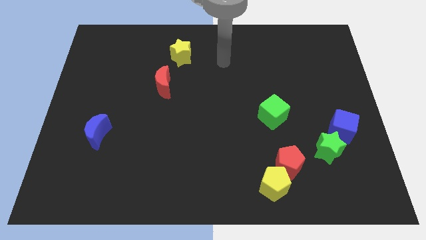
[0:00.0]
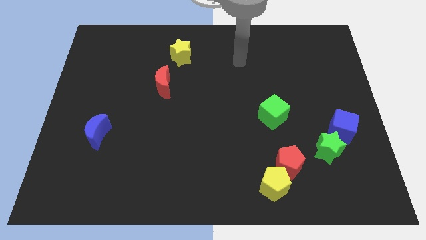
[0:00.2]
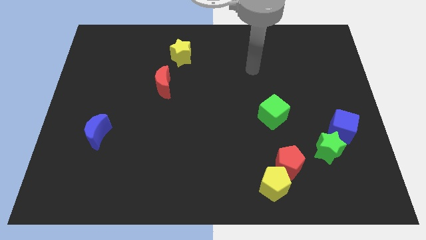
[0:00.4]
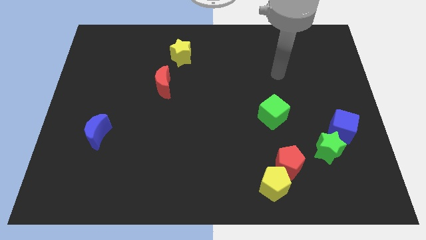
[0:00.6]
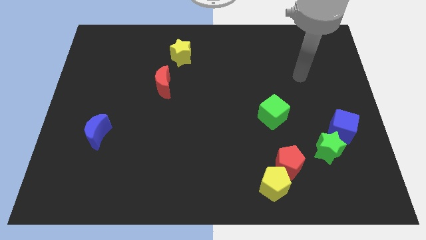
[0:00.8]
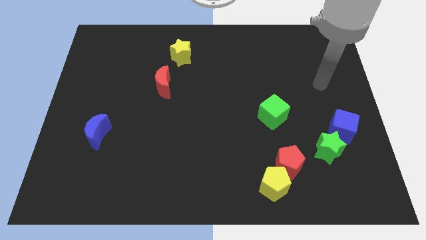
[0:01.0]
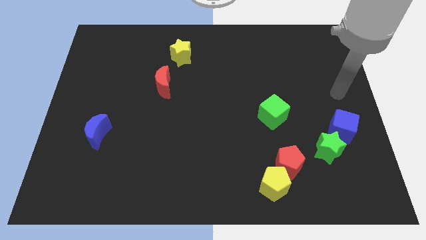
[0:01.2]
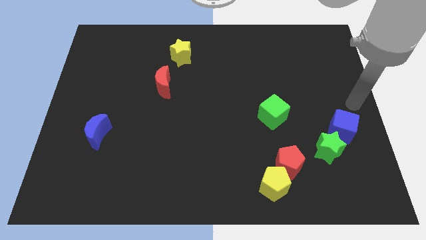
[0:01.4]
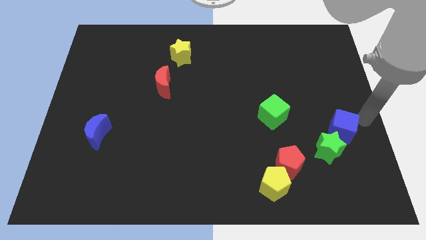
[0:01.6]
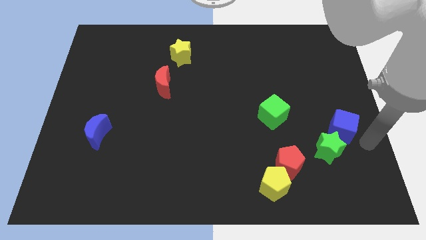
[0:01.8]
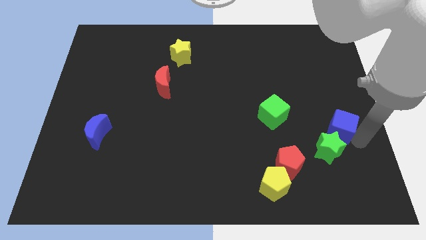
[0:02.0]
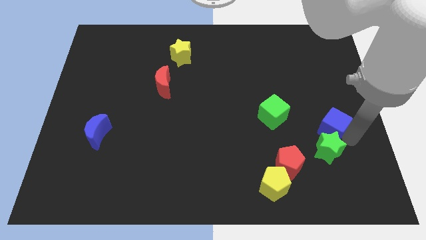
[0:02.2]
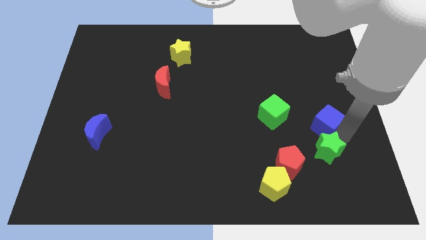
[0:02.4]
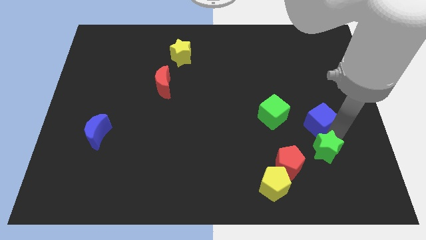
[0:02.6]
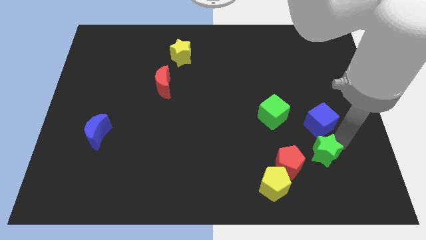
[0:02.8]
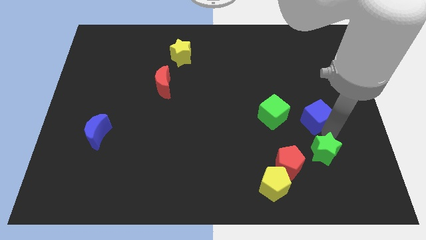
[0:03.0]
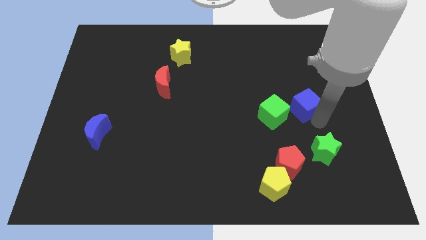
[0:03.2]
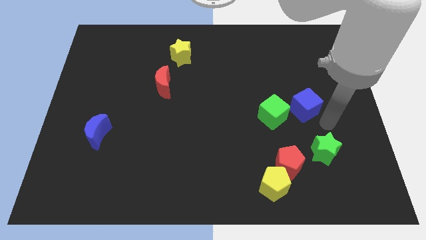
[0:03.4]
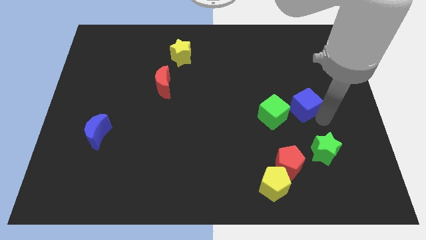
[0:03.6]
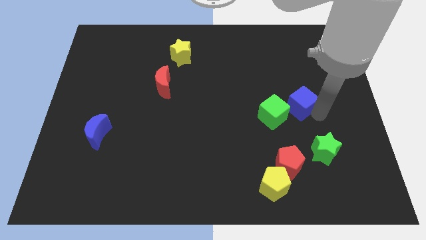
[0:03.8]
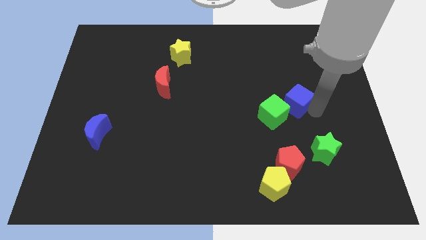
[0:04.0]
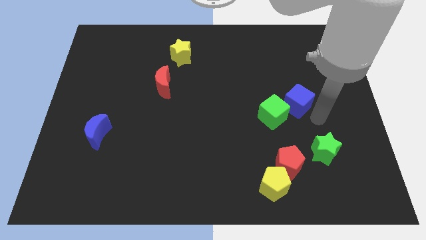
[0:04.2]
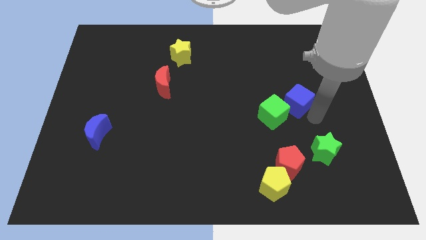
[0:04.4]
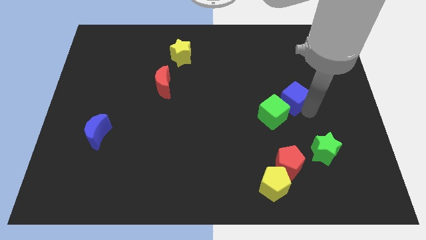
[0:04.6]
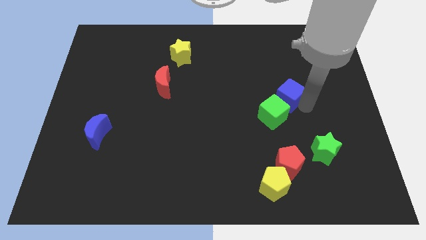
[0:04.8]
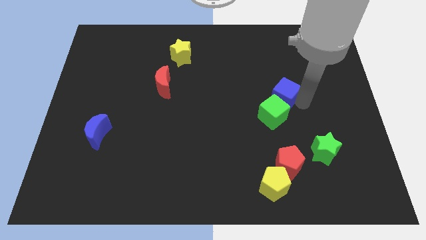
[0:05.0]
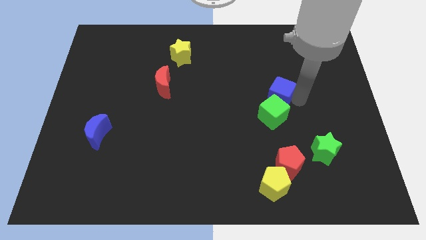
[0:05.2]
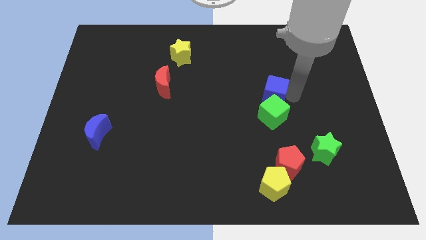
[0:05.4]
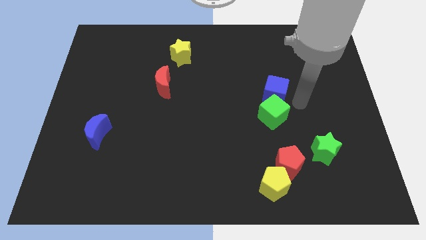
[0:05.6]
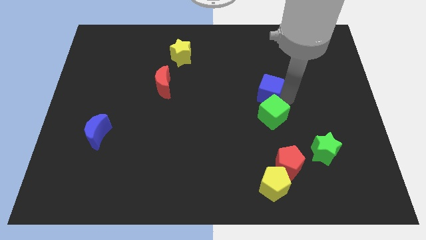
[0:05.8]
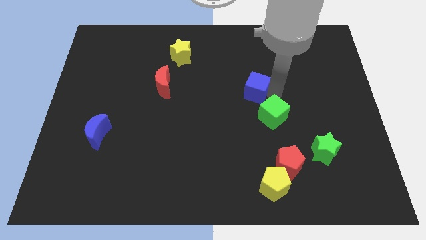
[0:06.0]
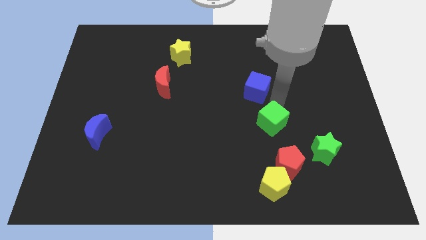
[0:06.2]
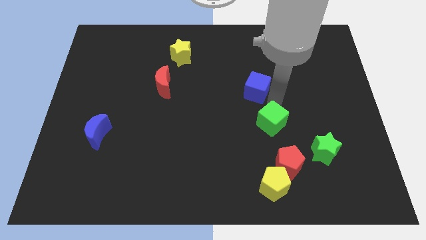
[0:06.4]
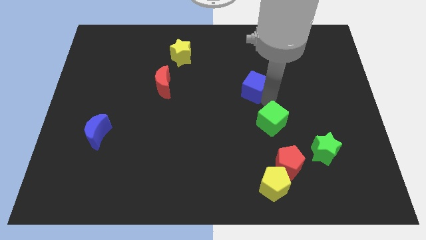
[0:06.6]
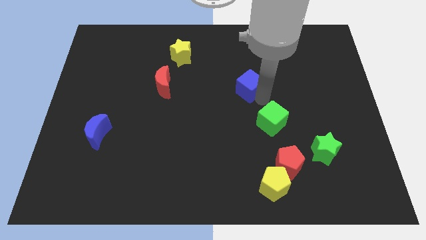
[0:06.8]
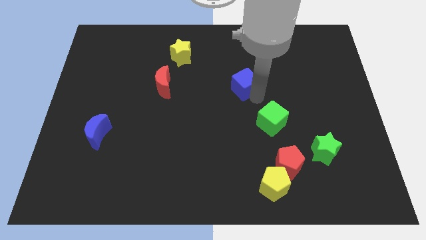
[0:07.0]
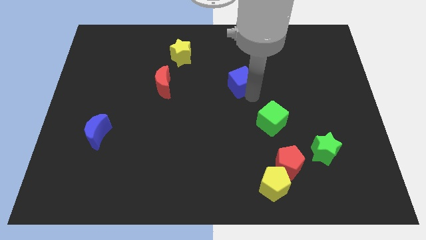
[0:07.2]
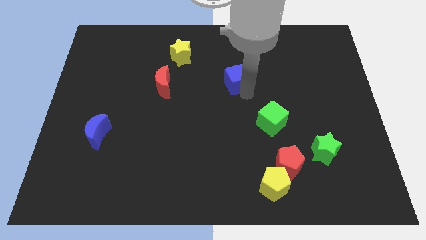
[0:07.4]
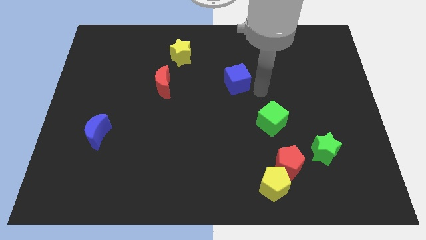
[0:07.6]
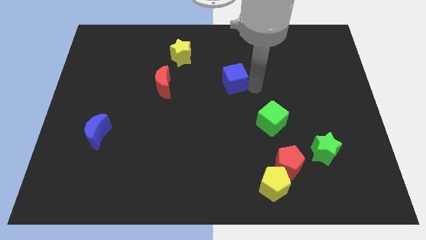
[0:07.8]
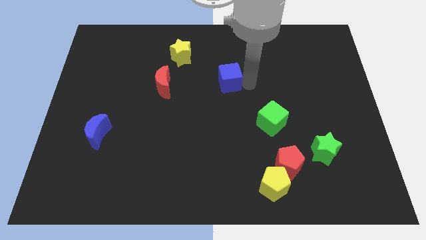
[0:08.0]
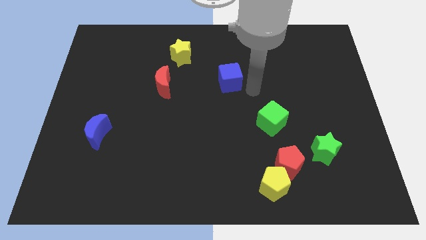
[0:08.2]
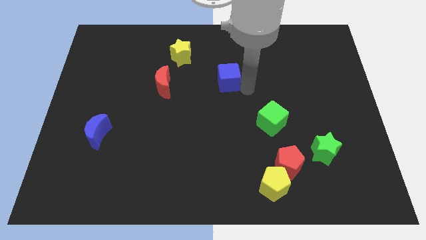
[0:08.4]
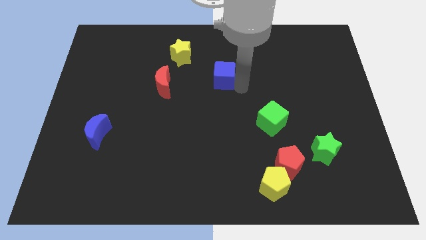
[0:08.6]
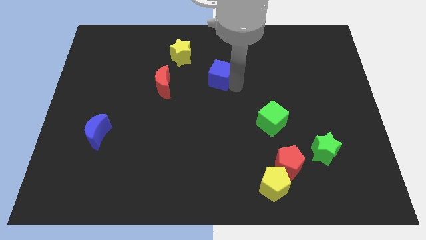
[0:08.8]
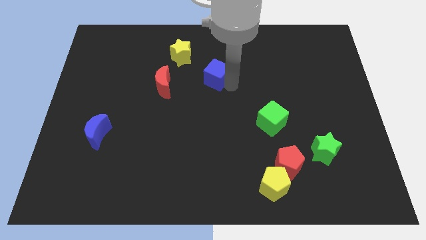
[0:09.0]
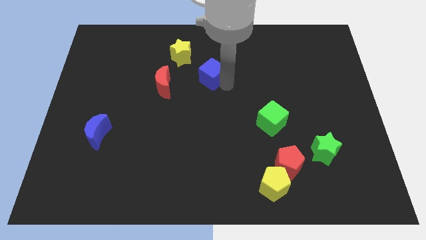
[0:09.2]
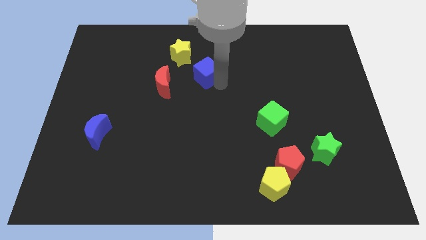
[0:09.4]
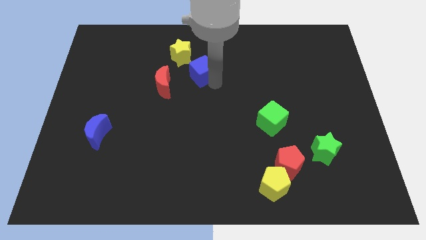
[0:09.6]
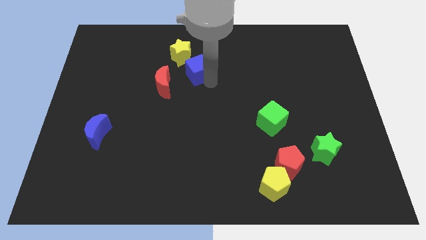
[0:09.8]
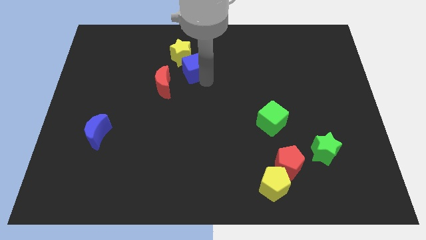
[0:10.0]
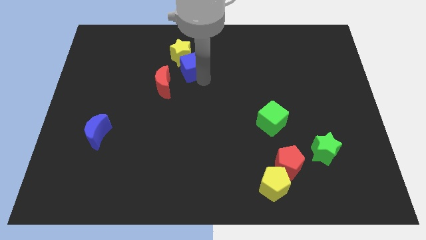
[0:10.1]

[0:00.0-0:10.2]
put the blue cube next to the yellow star

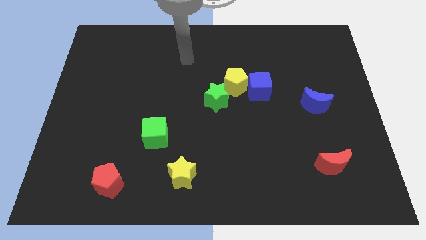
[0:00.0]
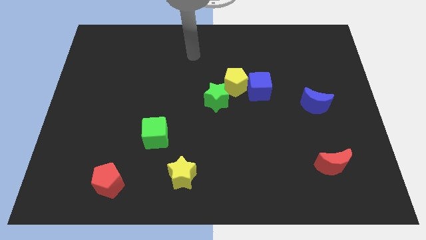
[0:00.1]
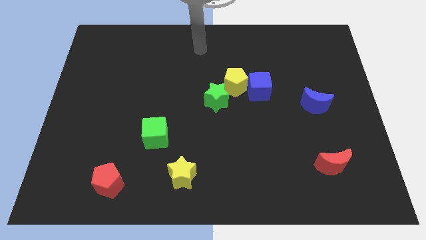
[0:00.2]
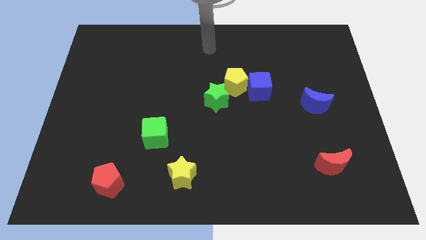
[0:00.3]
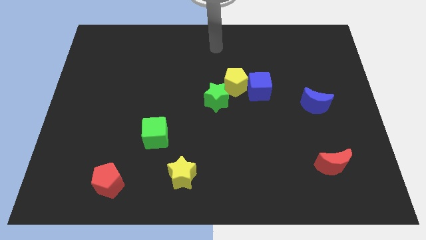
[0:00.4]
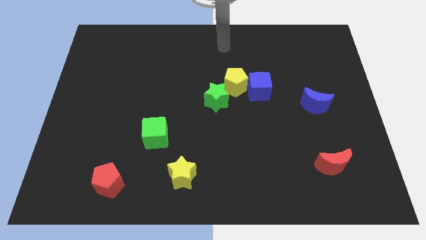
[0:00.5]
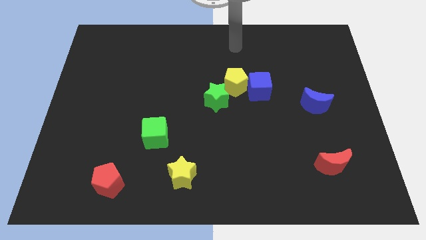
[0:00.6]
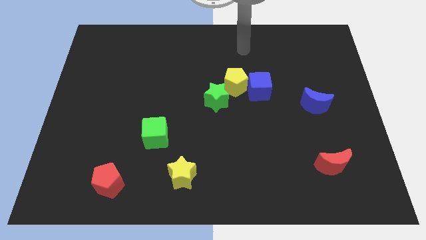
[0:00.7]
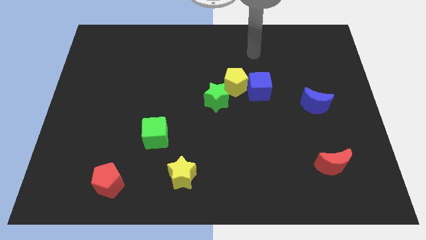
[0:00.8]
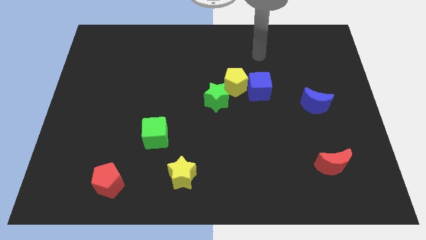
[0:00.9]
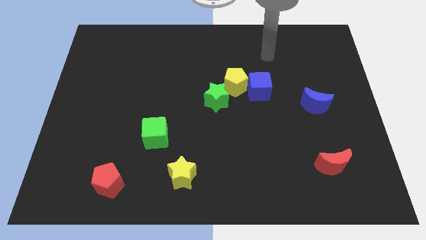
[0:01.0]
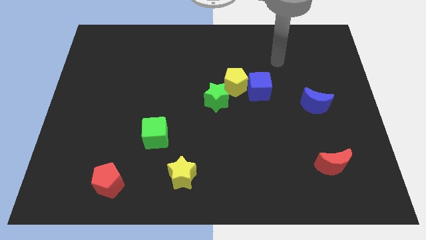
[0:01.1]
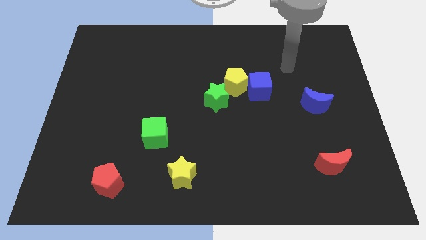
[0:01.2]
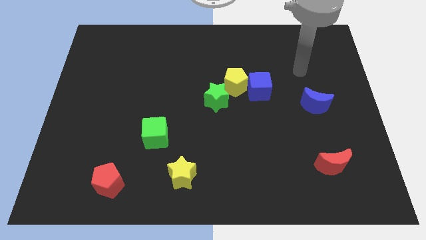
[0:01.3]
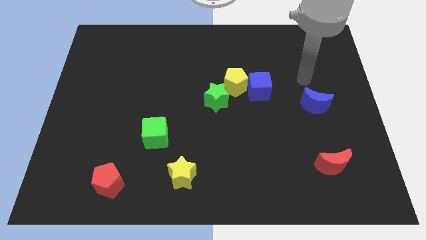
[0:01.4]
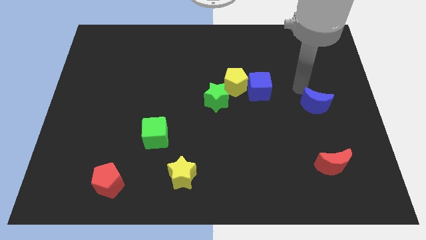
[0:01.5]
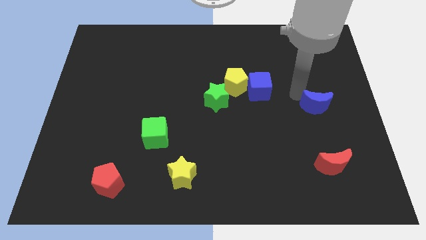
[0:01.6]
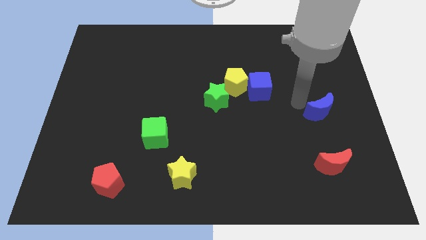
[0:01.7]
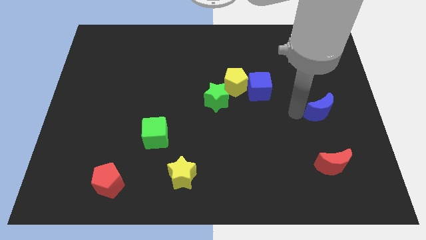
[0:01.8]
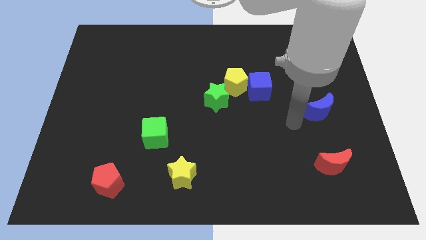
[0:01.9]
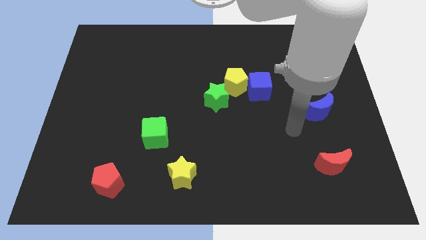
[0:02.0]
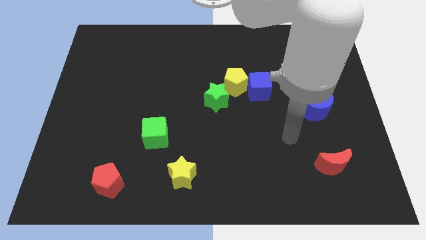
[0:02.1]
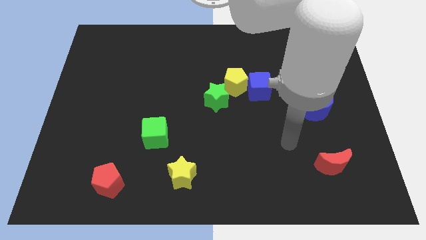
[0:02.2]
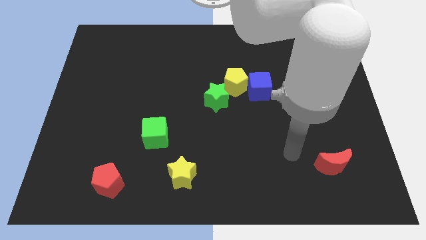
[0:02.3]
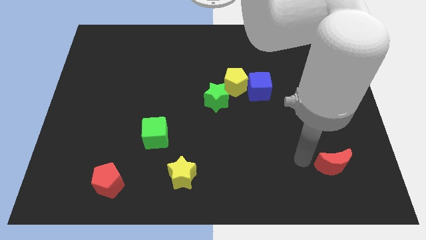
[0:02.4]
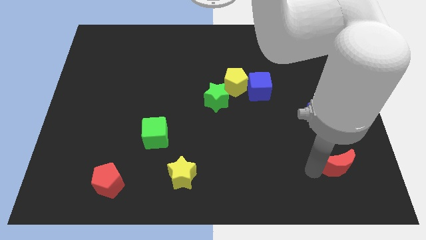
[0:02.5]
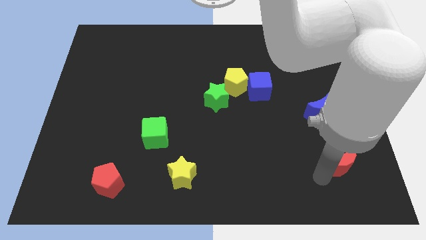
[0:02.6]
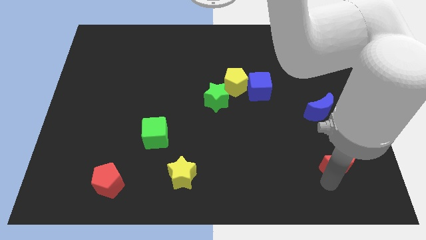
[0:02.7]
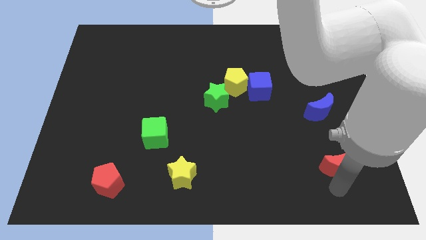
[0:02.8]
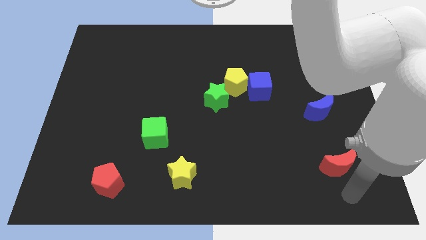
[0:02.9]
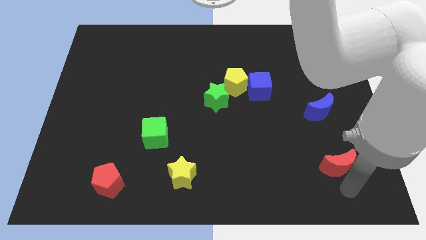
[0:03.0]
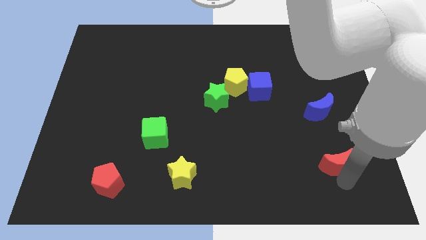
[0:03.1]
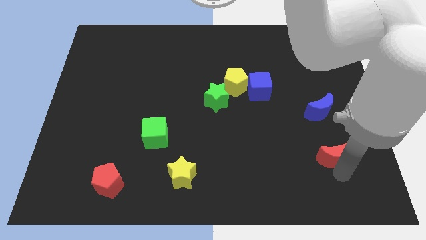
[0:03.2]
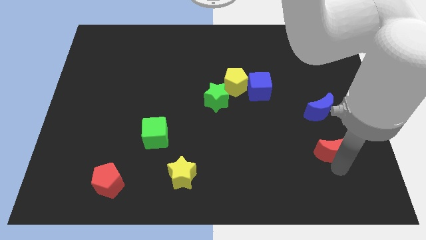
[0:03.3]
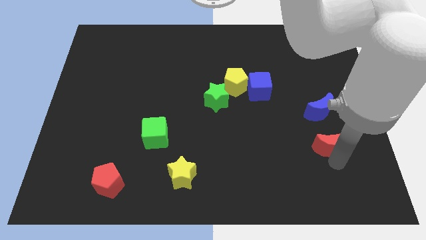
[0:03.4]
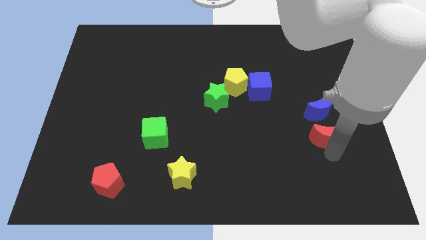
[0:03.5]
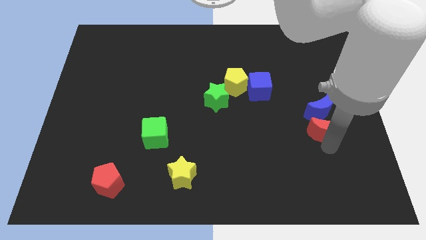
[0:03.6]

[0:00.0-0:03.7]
push the red moon towards the blue moon
